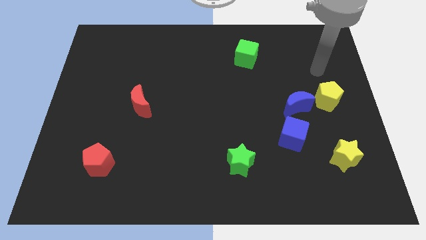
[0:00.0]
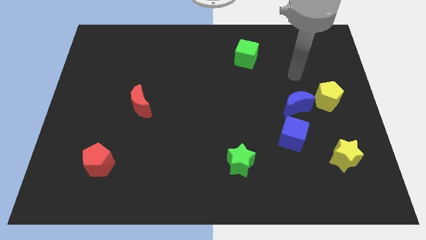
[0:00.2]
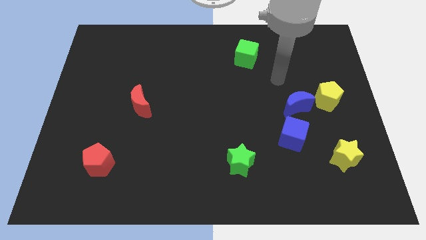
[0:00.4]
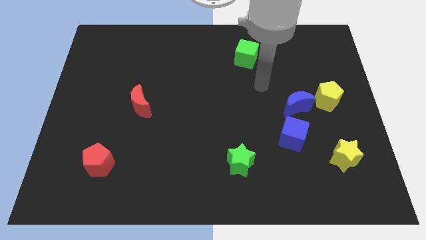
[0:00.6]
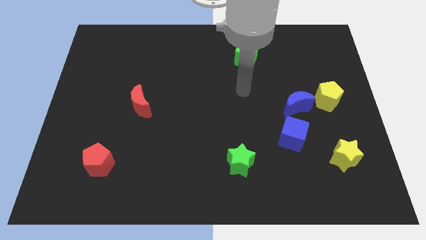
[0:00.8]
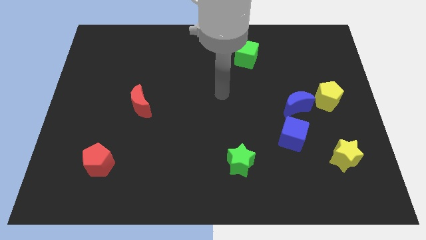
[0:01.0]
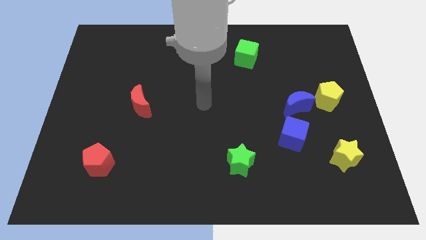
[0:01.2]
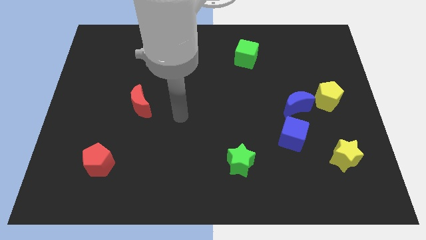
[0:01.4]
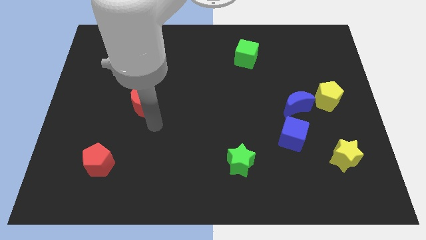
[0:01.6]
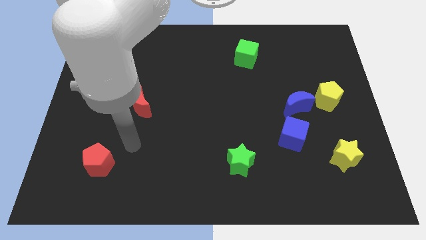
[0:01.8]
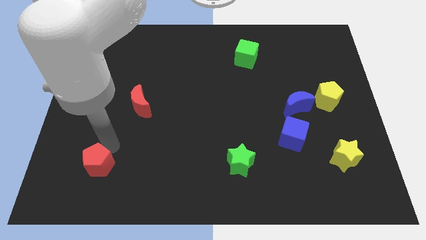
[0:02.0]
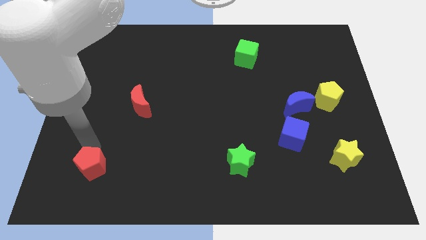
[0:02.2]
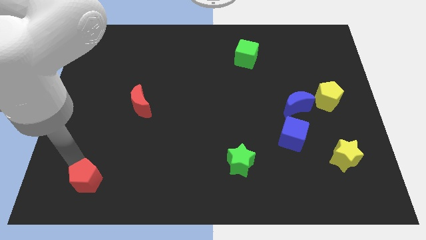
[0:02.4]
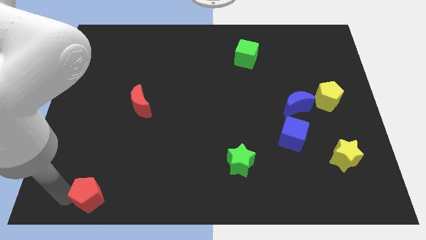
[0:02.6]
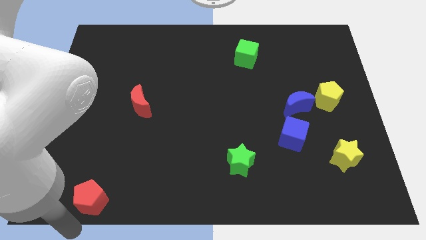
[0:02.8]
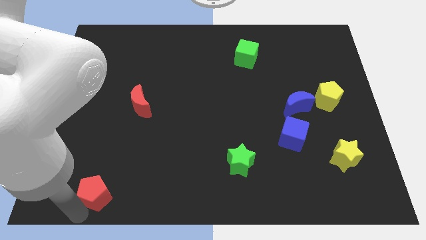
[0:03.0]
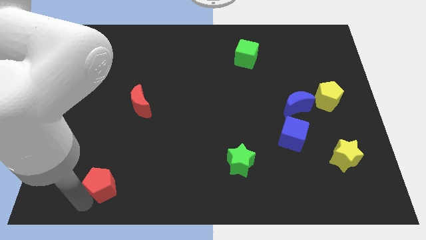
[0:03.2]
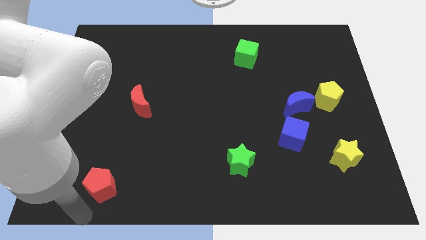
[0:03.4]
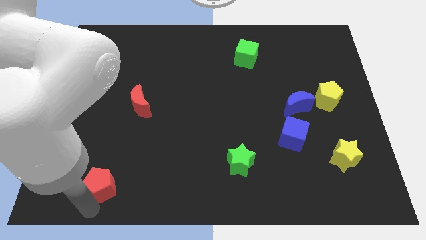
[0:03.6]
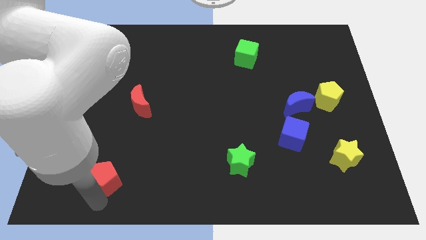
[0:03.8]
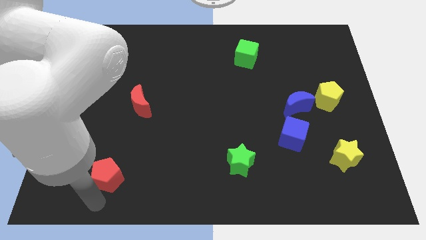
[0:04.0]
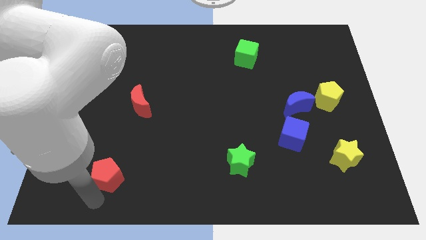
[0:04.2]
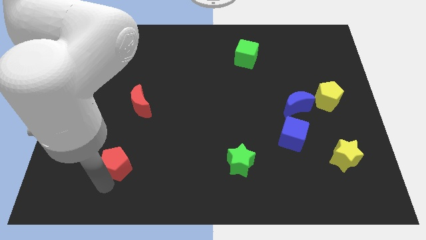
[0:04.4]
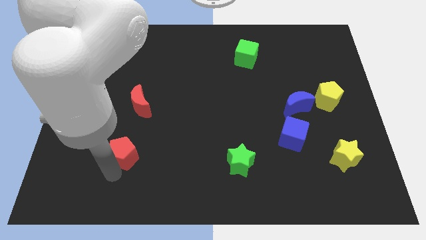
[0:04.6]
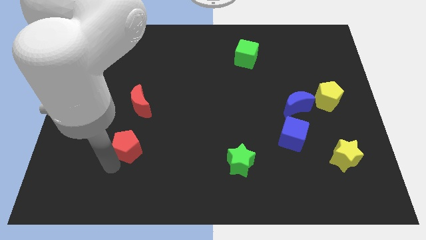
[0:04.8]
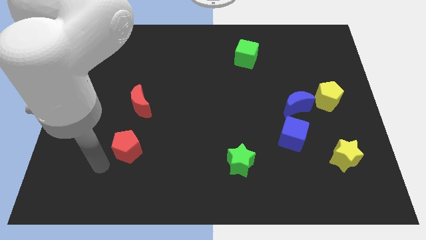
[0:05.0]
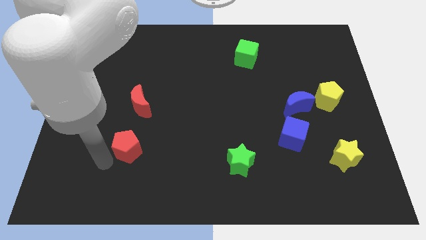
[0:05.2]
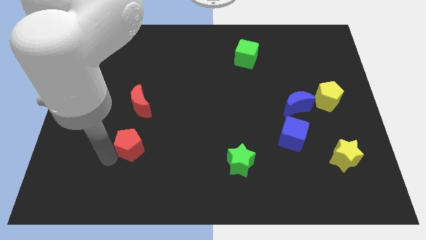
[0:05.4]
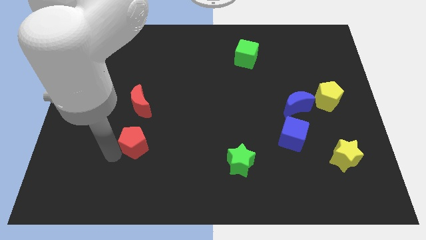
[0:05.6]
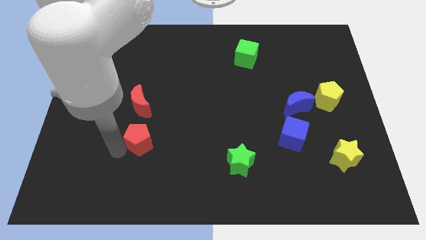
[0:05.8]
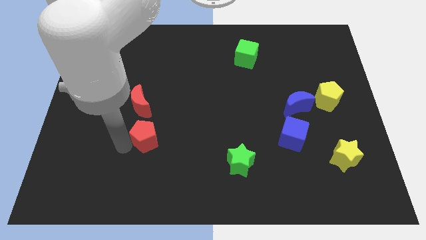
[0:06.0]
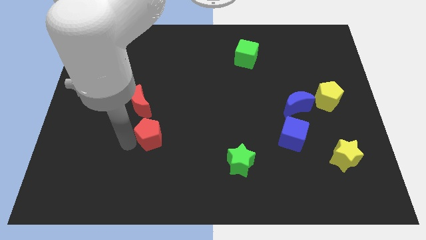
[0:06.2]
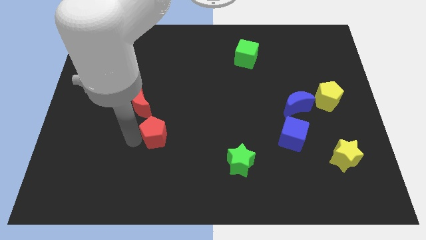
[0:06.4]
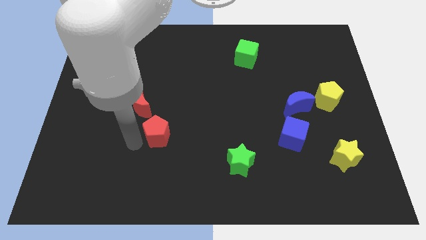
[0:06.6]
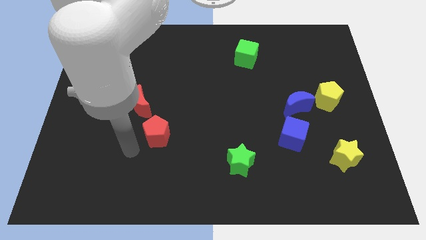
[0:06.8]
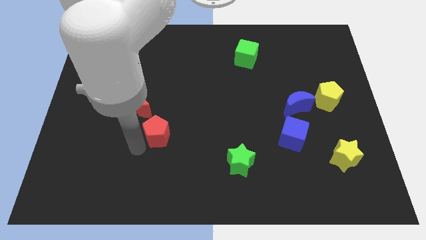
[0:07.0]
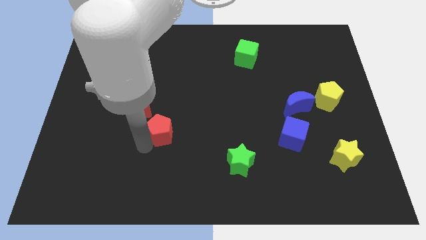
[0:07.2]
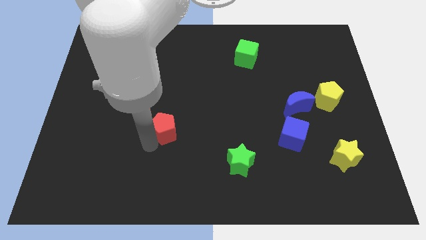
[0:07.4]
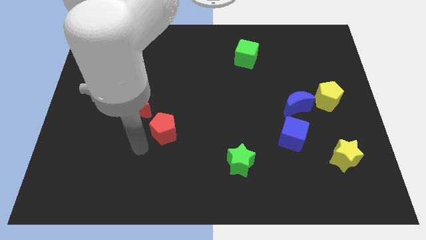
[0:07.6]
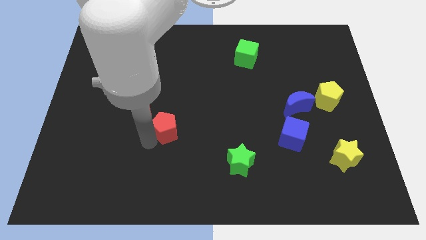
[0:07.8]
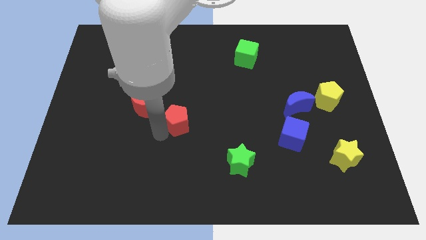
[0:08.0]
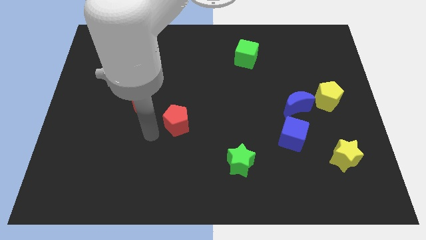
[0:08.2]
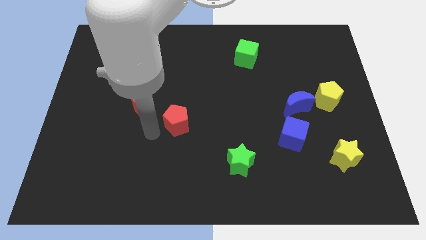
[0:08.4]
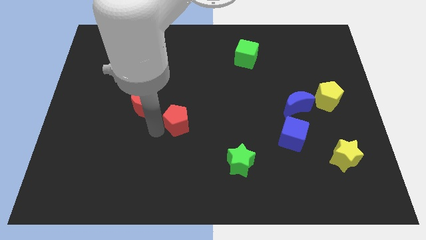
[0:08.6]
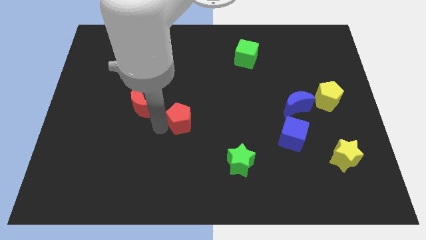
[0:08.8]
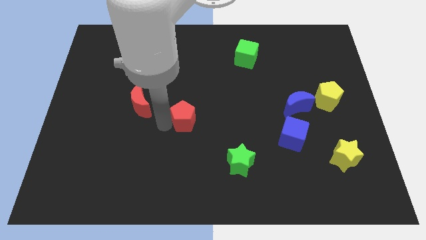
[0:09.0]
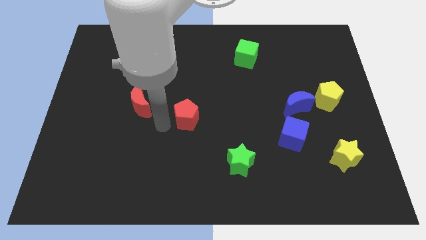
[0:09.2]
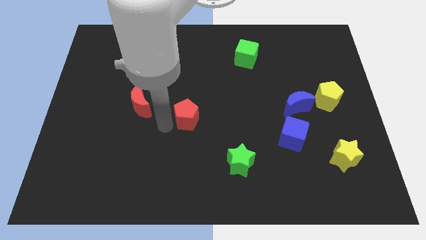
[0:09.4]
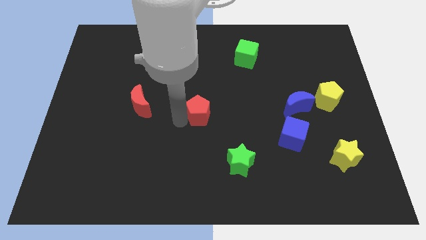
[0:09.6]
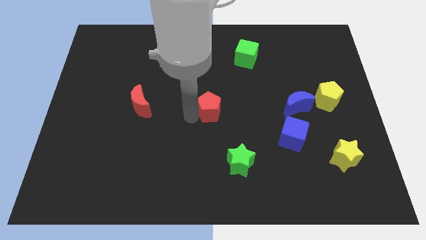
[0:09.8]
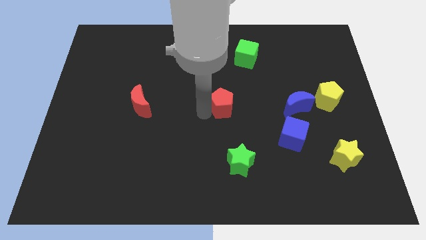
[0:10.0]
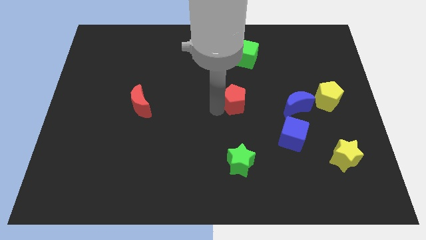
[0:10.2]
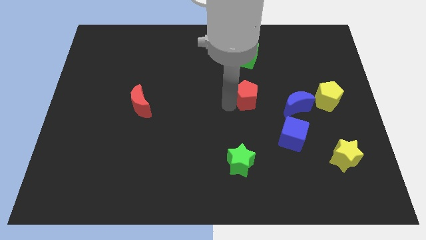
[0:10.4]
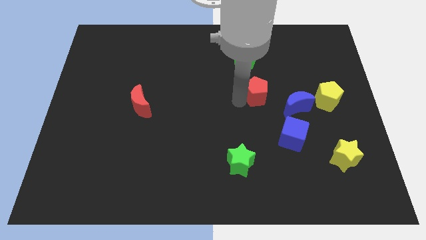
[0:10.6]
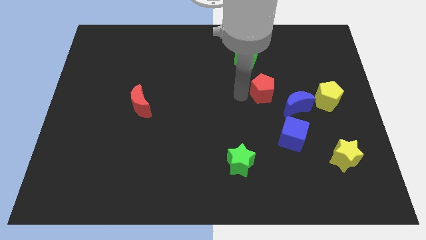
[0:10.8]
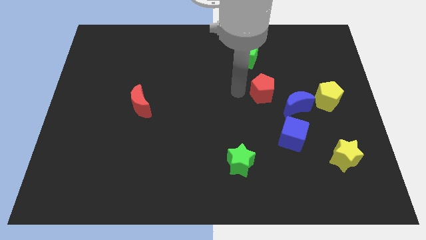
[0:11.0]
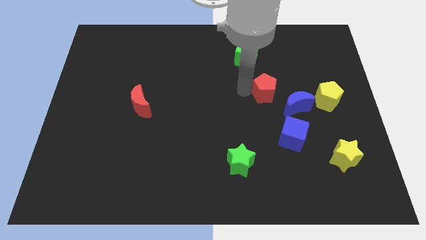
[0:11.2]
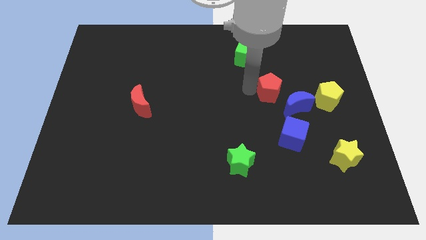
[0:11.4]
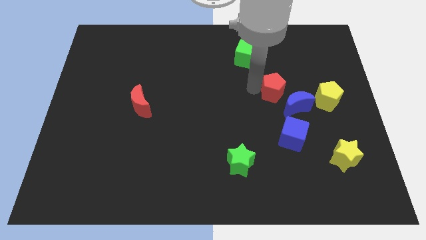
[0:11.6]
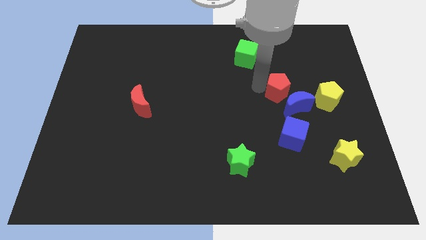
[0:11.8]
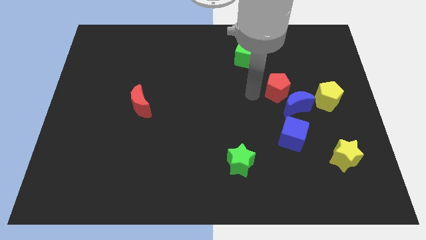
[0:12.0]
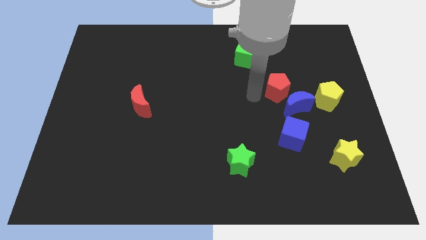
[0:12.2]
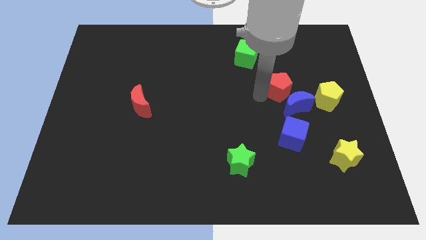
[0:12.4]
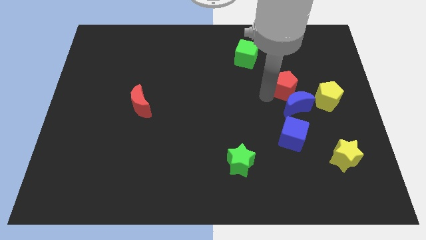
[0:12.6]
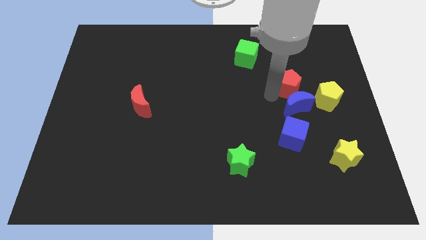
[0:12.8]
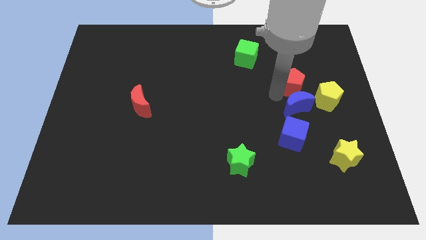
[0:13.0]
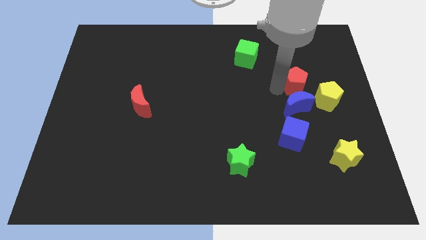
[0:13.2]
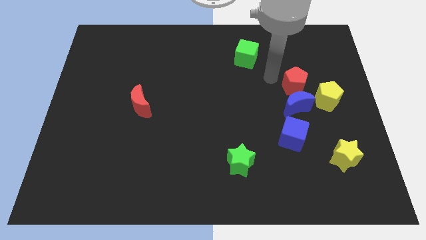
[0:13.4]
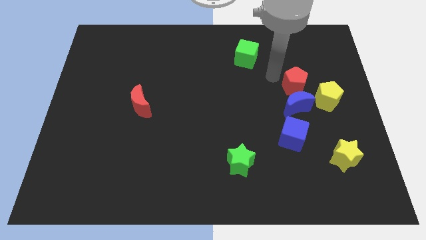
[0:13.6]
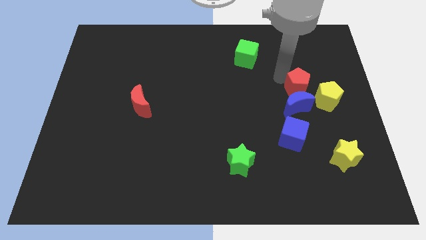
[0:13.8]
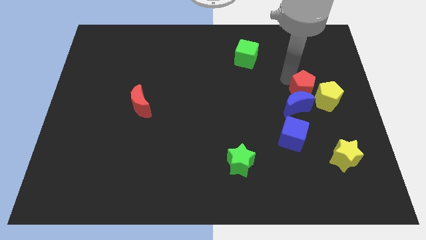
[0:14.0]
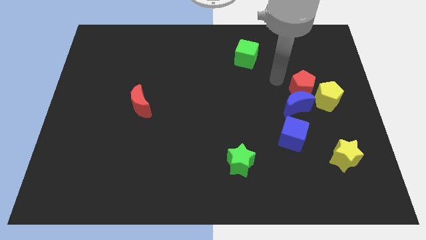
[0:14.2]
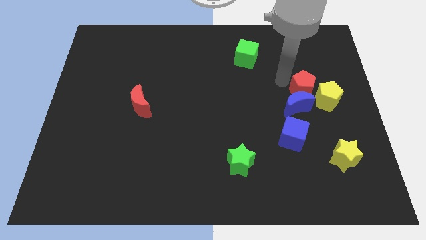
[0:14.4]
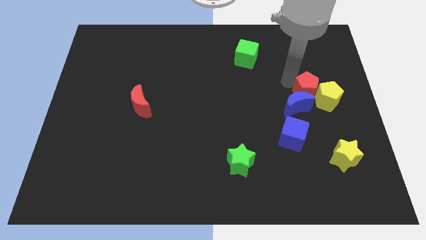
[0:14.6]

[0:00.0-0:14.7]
push the red pentagon to the yellow pentagon
